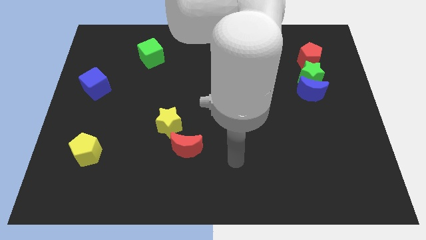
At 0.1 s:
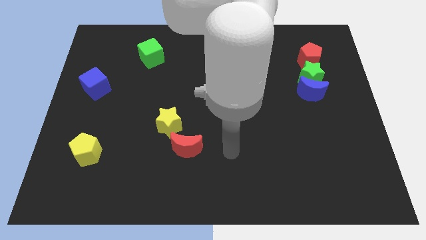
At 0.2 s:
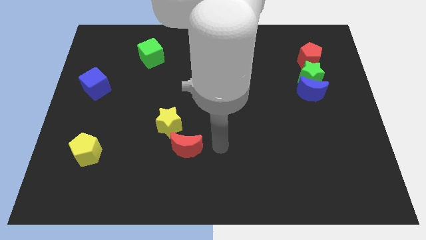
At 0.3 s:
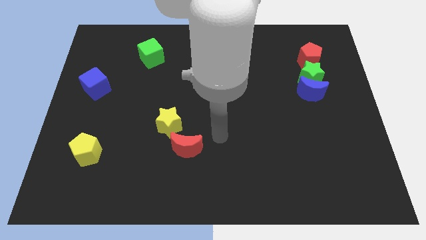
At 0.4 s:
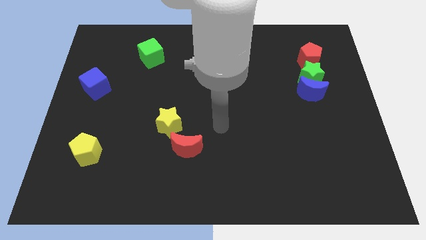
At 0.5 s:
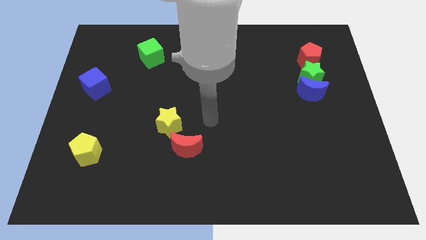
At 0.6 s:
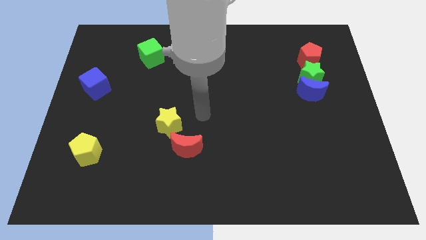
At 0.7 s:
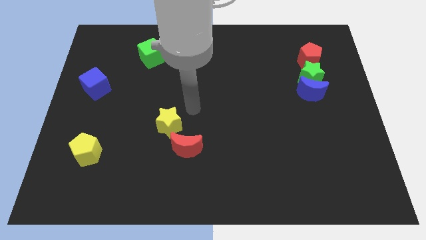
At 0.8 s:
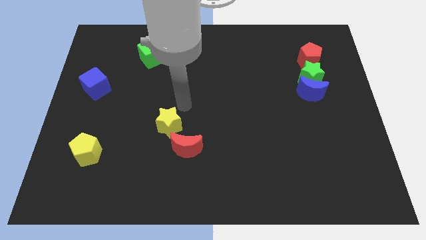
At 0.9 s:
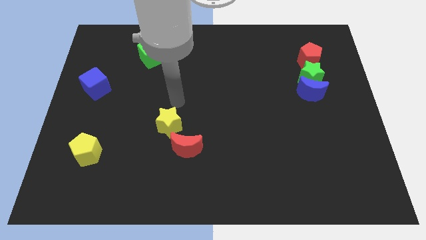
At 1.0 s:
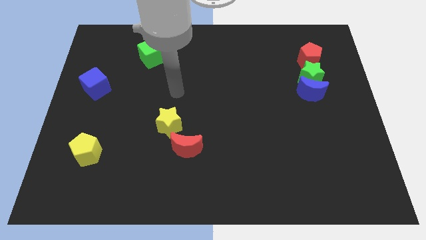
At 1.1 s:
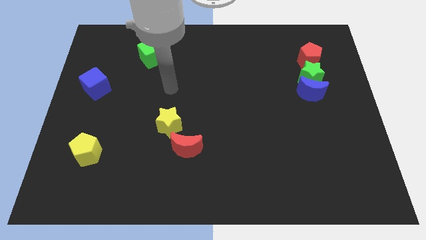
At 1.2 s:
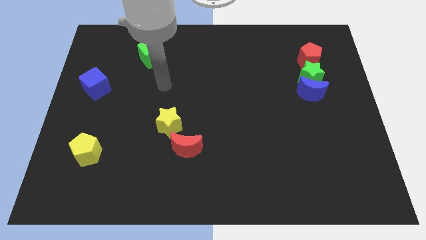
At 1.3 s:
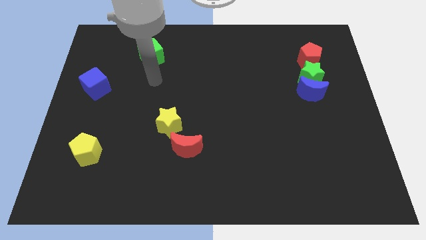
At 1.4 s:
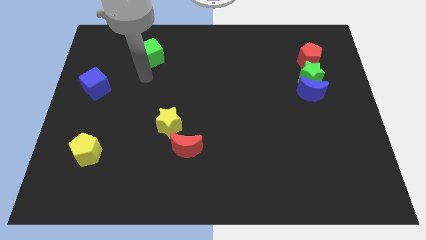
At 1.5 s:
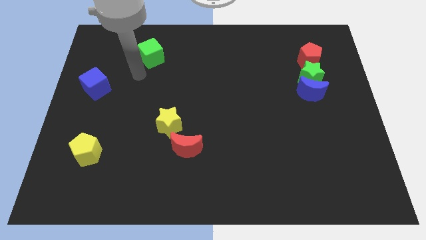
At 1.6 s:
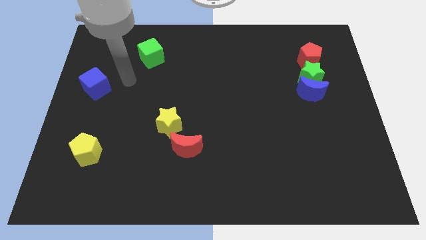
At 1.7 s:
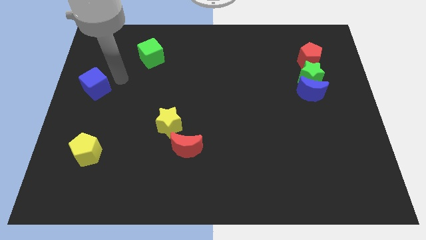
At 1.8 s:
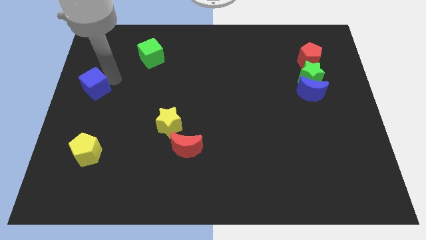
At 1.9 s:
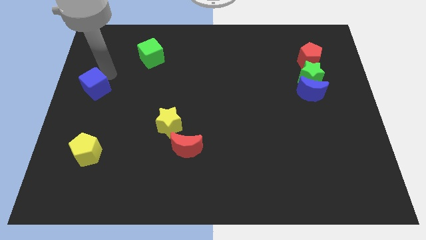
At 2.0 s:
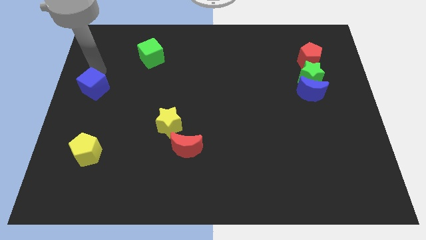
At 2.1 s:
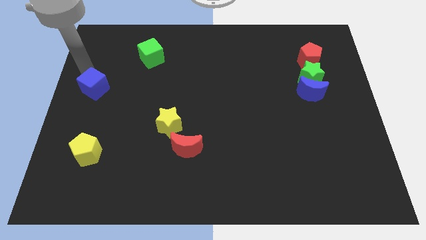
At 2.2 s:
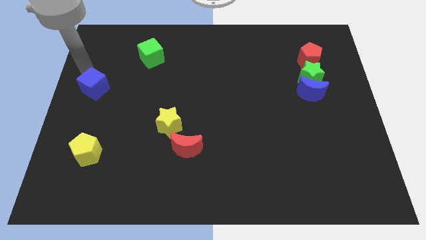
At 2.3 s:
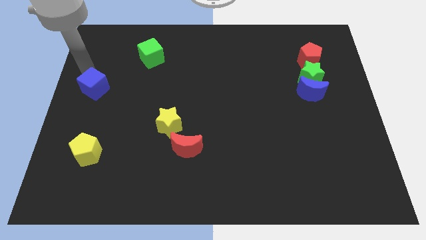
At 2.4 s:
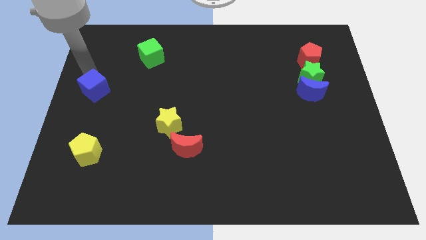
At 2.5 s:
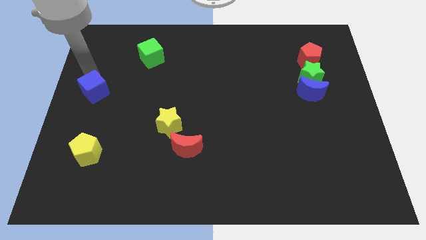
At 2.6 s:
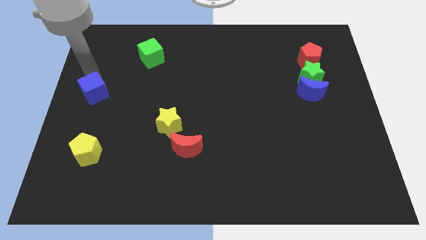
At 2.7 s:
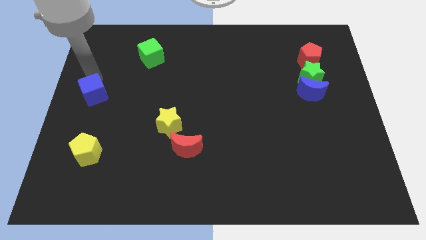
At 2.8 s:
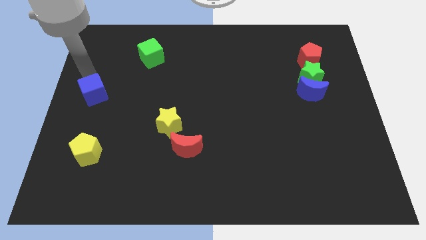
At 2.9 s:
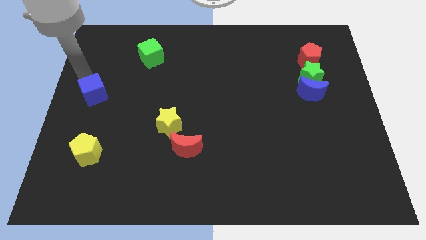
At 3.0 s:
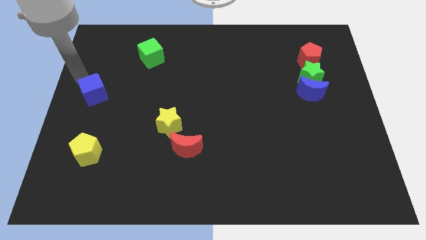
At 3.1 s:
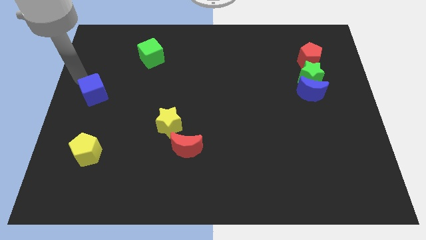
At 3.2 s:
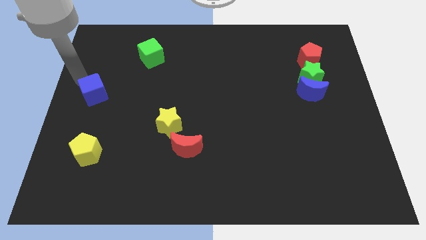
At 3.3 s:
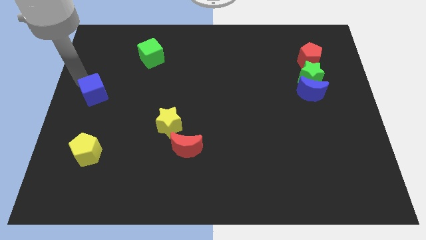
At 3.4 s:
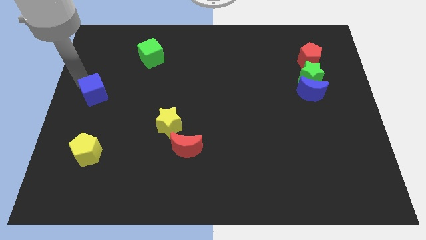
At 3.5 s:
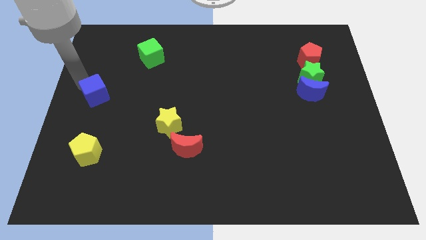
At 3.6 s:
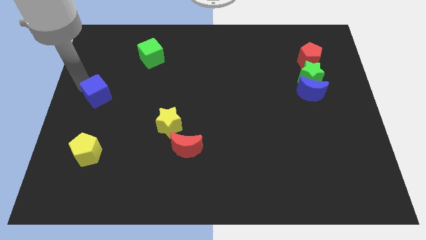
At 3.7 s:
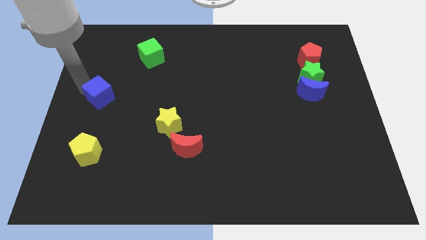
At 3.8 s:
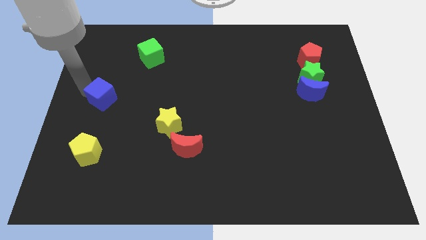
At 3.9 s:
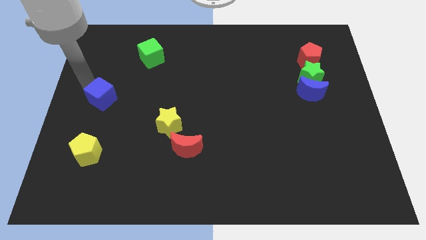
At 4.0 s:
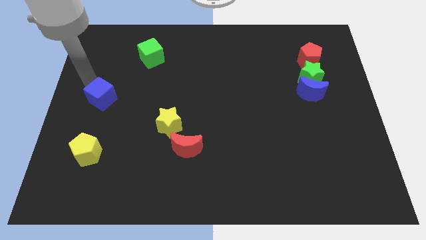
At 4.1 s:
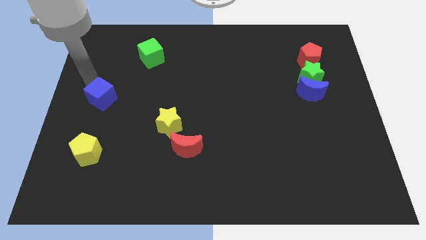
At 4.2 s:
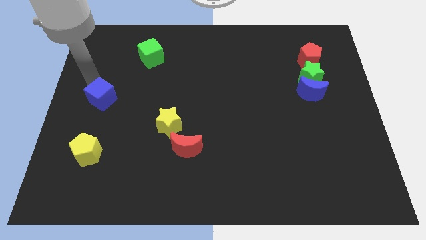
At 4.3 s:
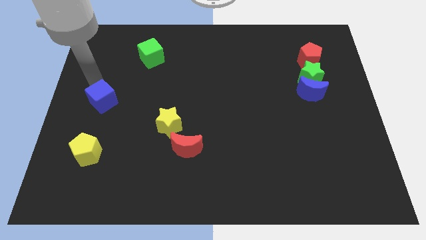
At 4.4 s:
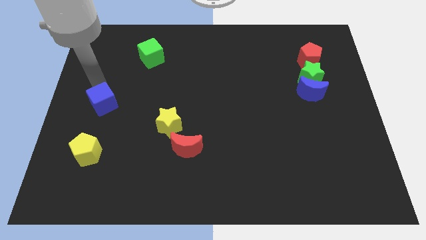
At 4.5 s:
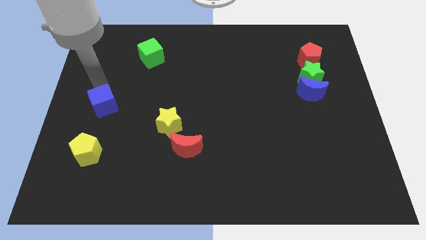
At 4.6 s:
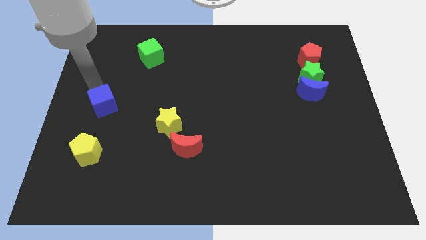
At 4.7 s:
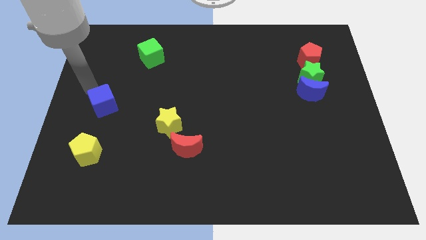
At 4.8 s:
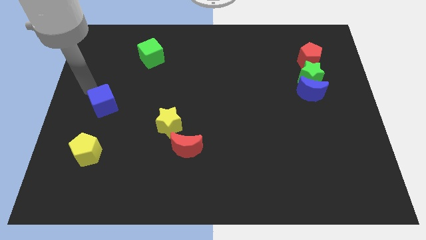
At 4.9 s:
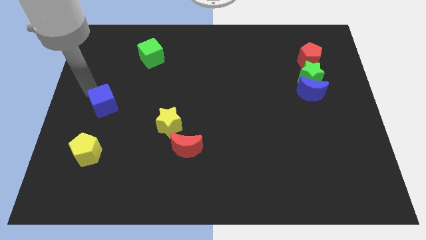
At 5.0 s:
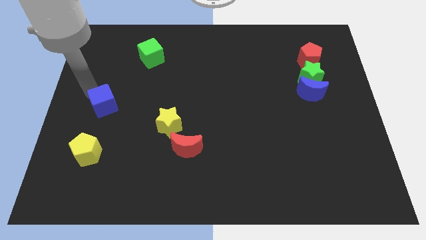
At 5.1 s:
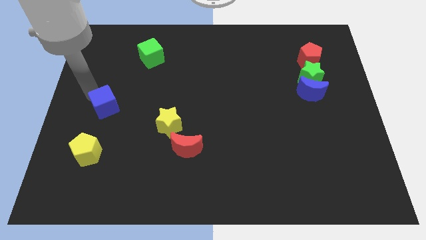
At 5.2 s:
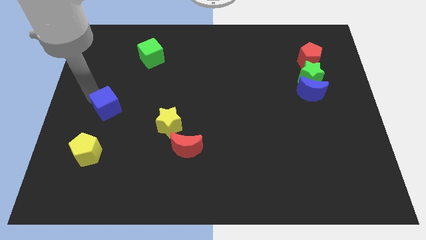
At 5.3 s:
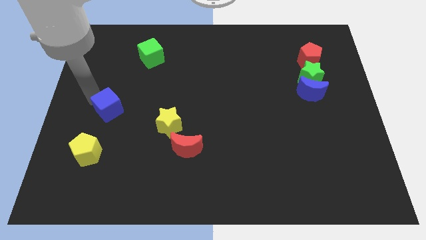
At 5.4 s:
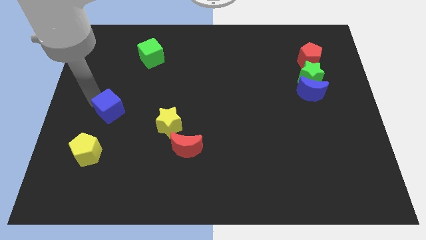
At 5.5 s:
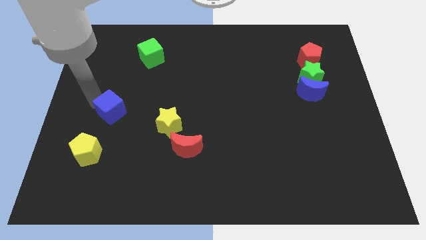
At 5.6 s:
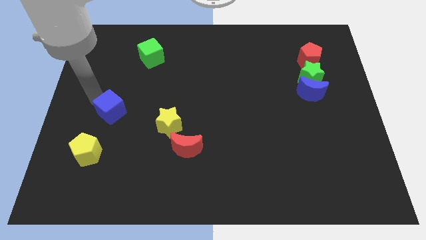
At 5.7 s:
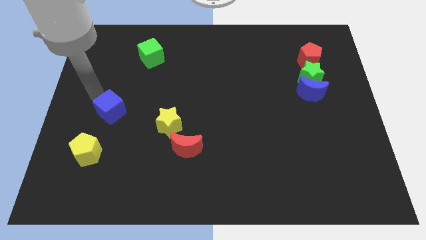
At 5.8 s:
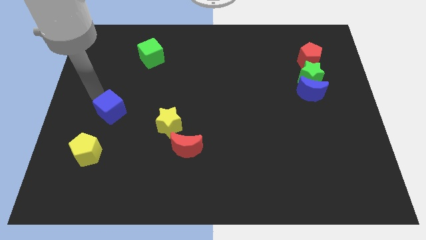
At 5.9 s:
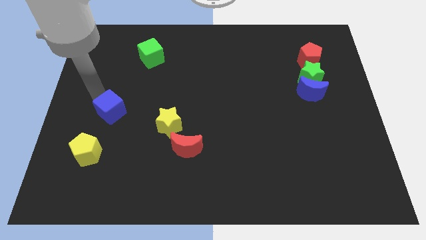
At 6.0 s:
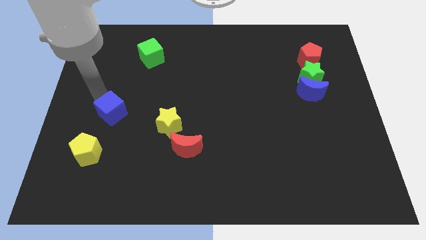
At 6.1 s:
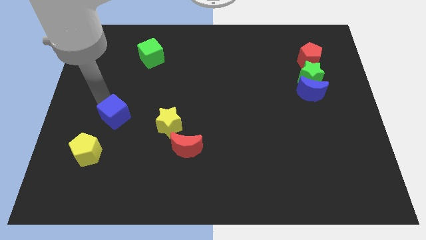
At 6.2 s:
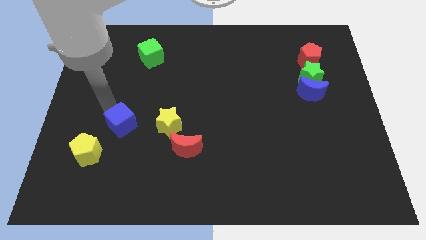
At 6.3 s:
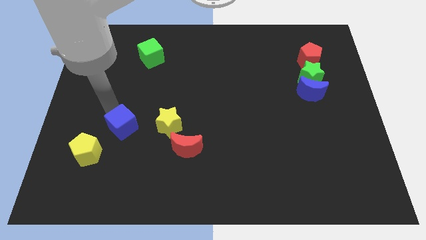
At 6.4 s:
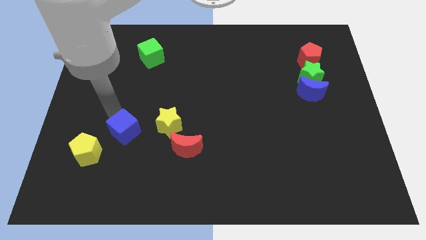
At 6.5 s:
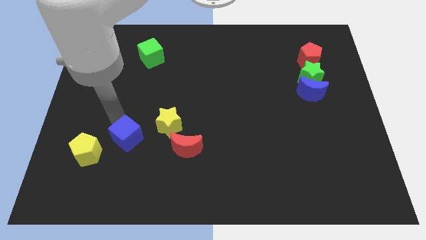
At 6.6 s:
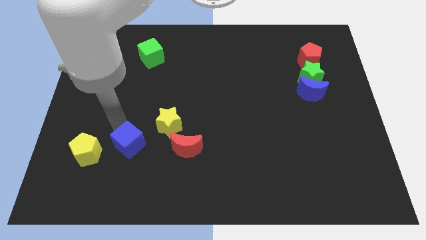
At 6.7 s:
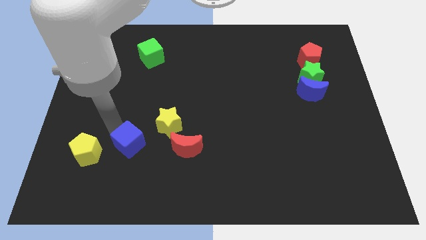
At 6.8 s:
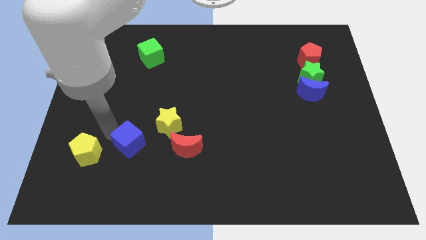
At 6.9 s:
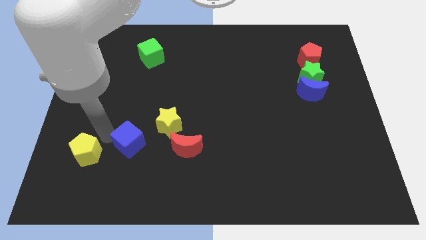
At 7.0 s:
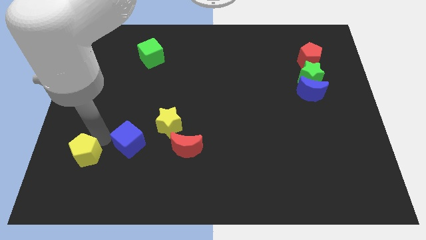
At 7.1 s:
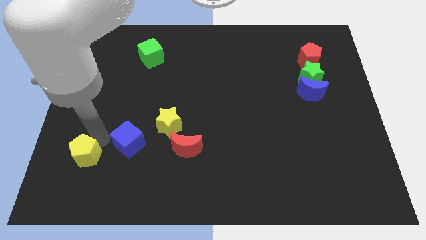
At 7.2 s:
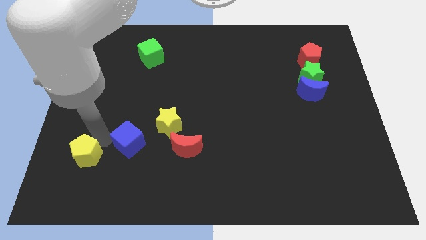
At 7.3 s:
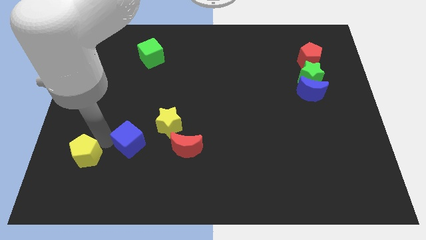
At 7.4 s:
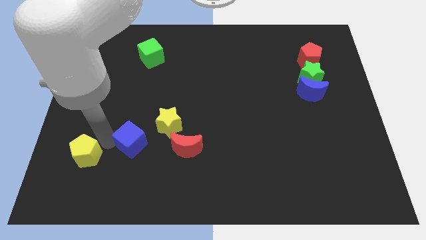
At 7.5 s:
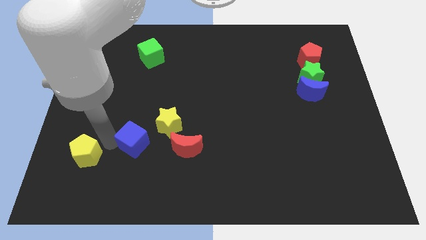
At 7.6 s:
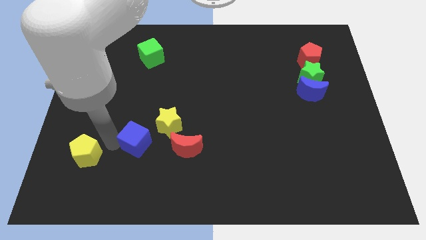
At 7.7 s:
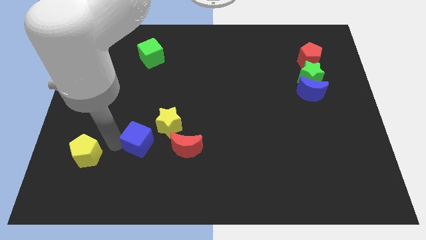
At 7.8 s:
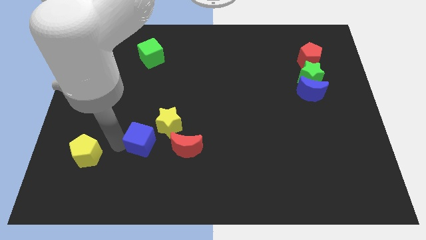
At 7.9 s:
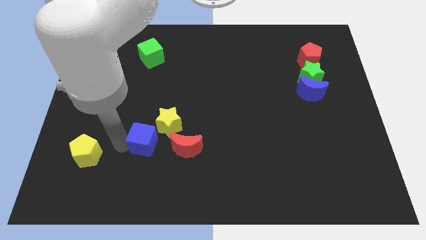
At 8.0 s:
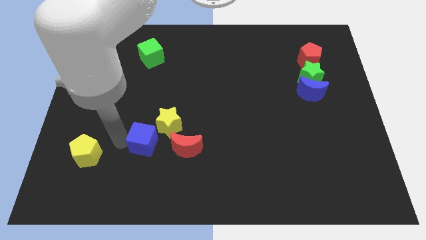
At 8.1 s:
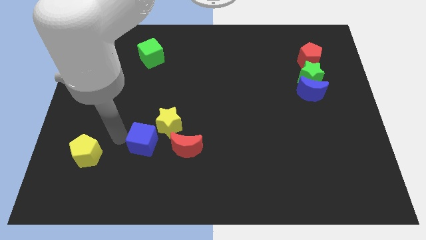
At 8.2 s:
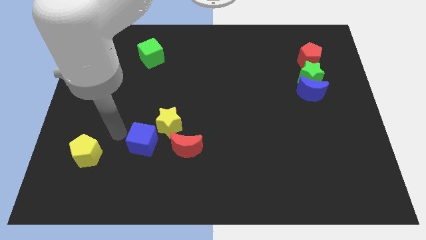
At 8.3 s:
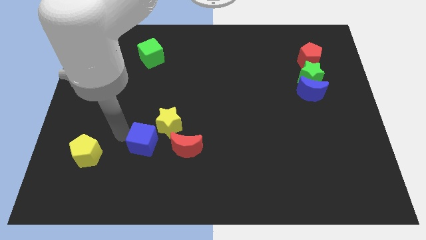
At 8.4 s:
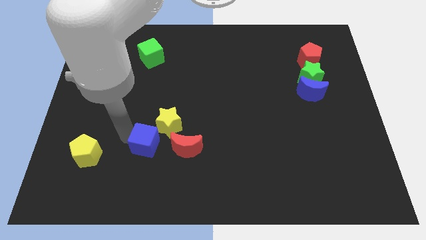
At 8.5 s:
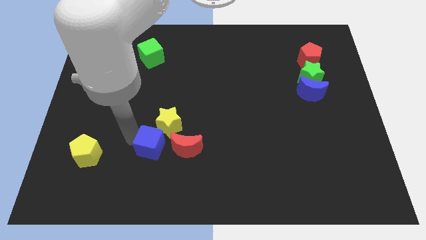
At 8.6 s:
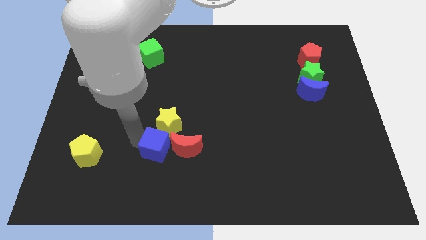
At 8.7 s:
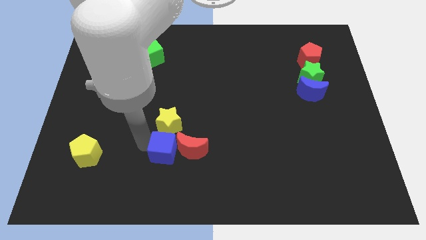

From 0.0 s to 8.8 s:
move the blue cube towards the red moon
